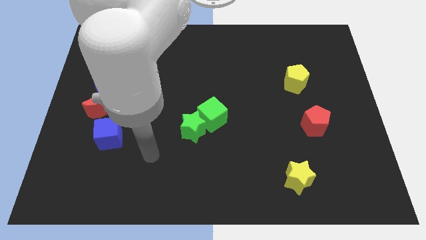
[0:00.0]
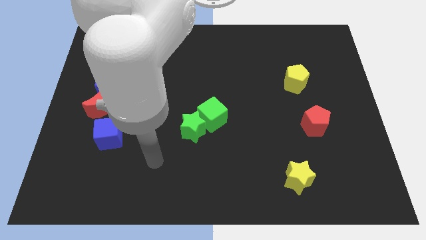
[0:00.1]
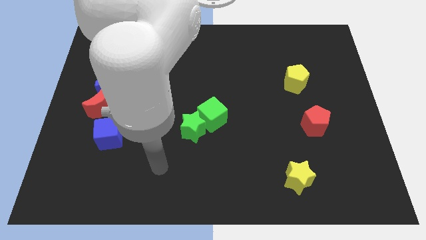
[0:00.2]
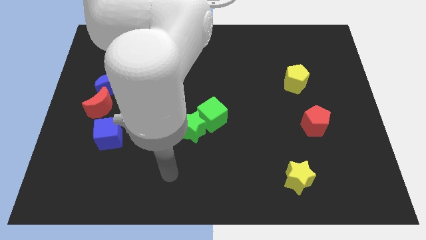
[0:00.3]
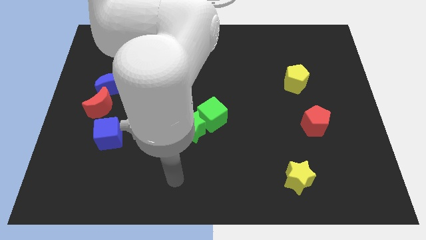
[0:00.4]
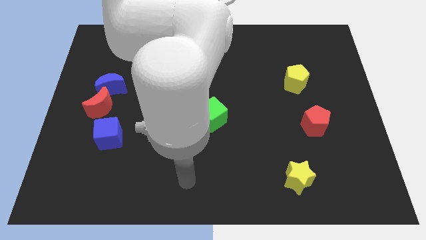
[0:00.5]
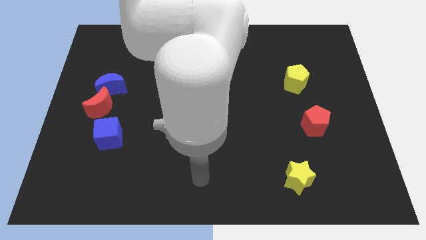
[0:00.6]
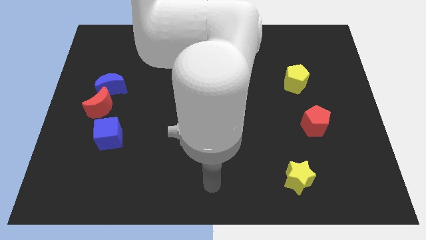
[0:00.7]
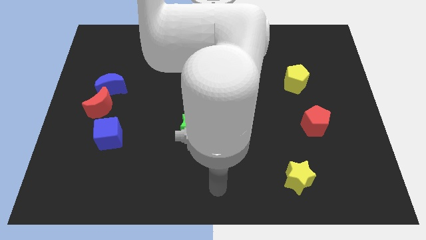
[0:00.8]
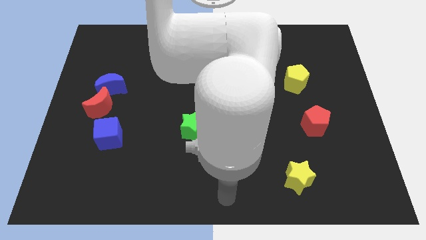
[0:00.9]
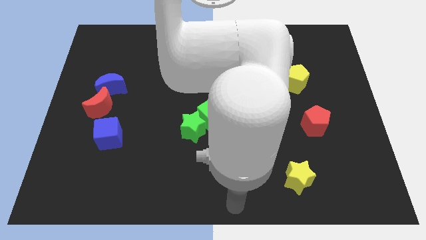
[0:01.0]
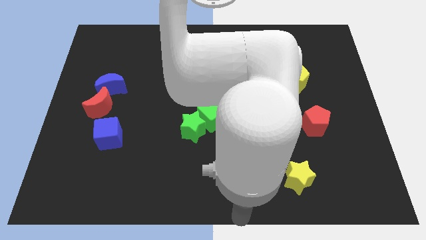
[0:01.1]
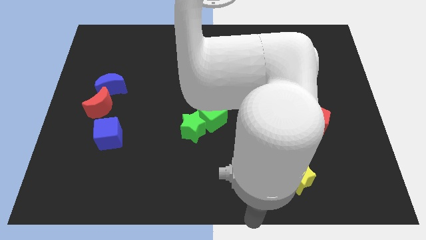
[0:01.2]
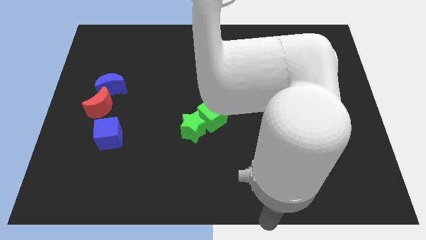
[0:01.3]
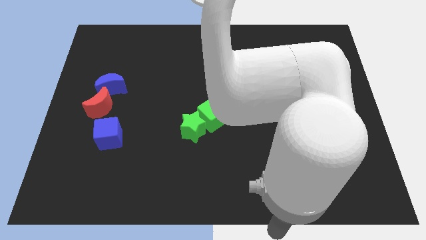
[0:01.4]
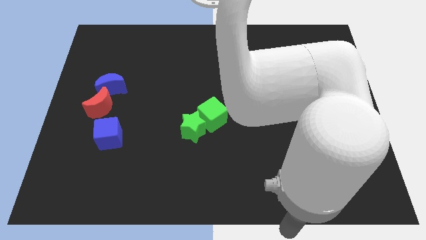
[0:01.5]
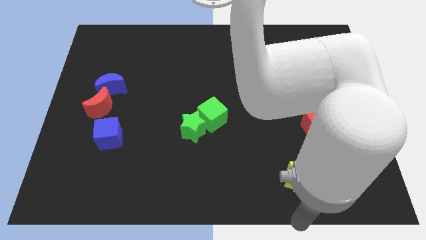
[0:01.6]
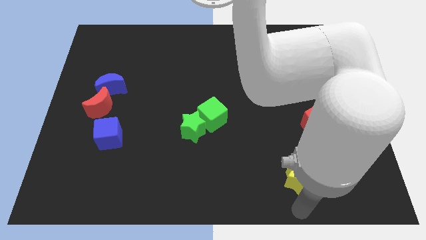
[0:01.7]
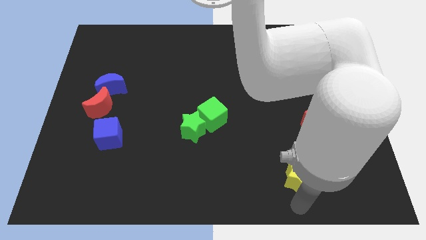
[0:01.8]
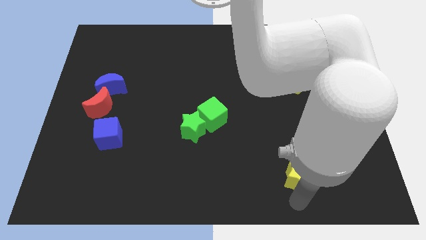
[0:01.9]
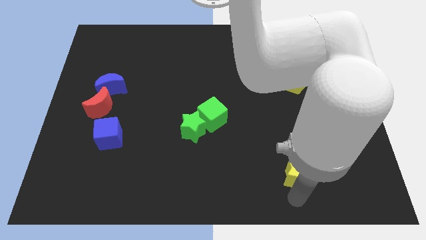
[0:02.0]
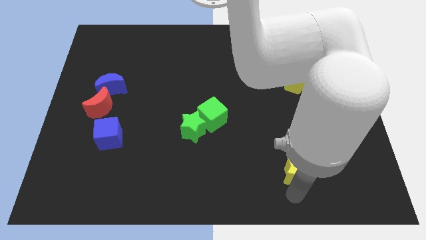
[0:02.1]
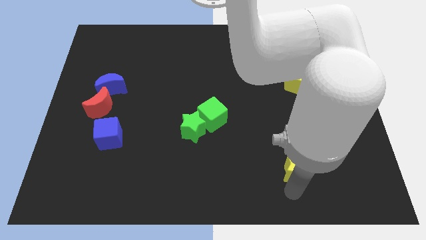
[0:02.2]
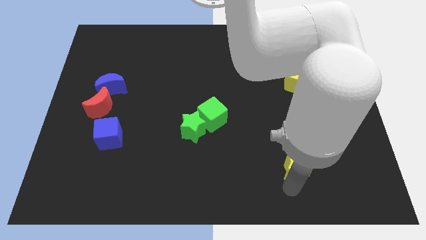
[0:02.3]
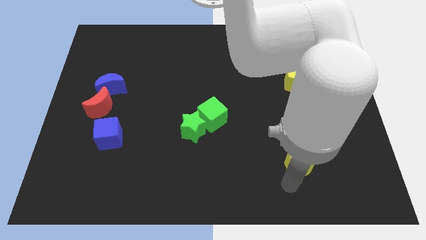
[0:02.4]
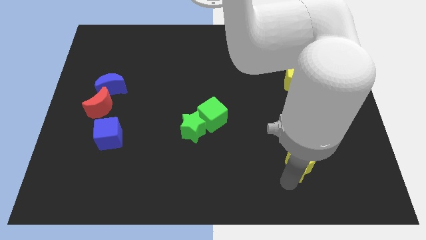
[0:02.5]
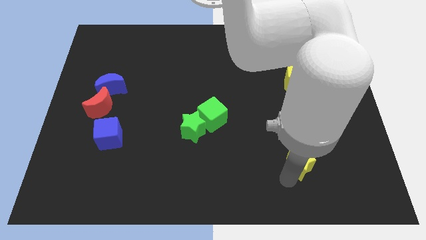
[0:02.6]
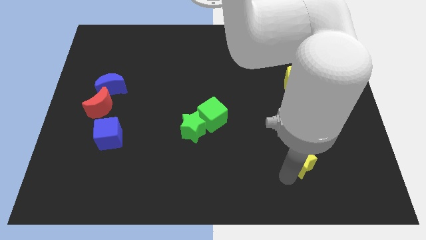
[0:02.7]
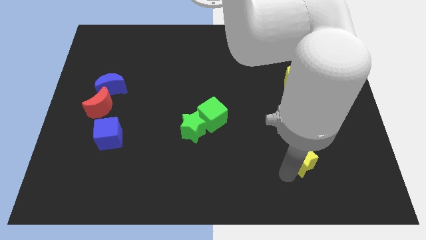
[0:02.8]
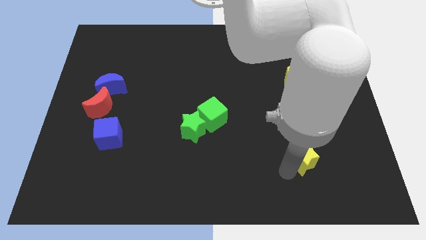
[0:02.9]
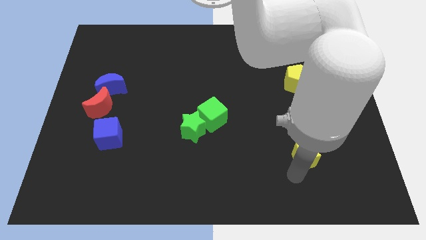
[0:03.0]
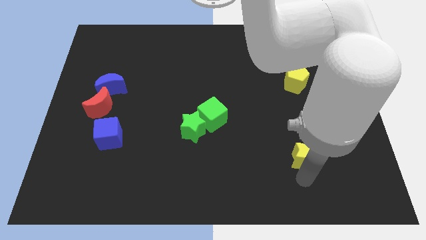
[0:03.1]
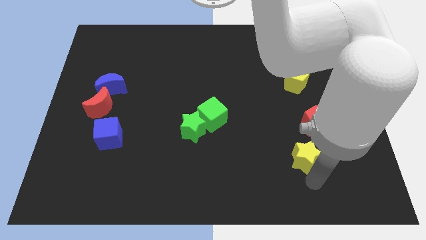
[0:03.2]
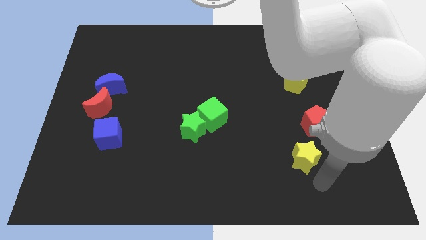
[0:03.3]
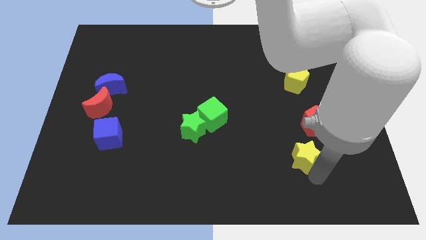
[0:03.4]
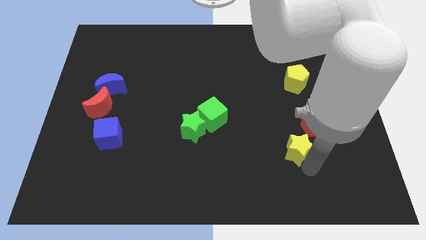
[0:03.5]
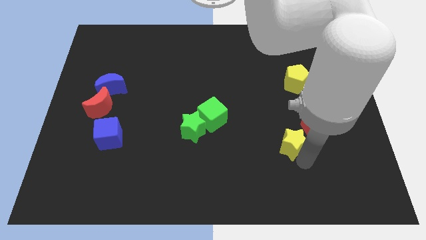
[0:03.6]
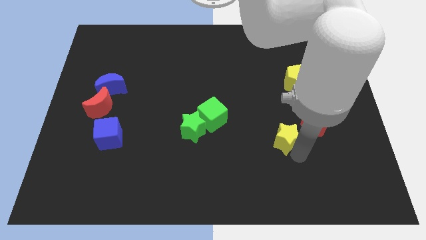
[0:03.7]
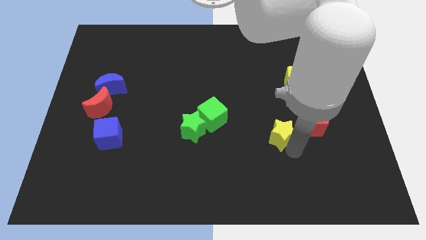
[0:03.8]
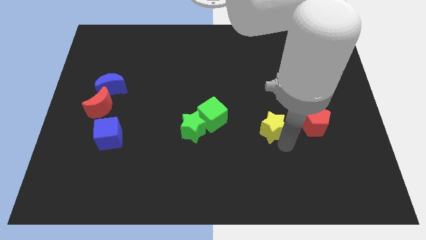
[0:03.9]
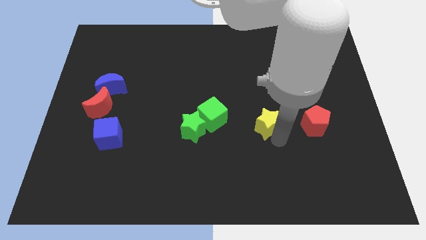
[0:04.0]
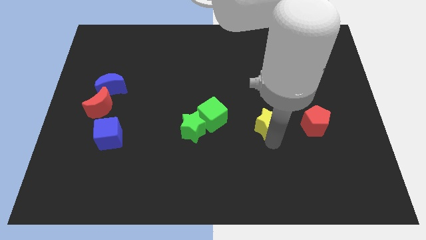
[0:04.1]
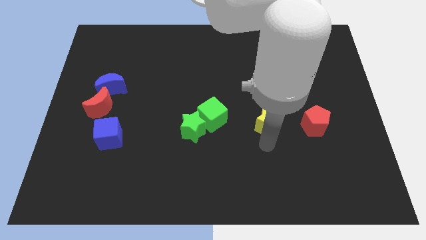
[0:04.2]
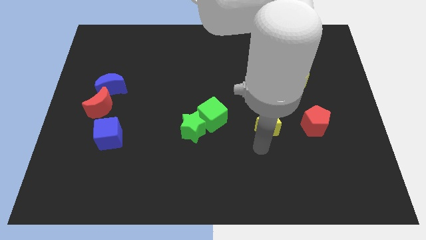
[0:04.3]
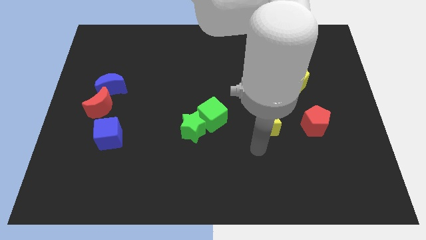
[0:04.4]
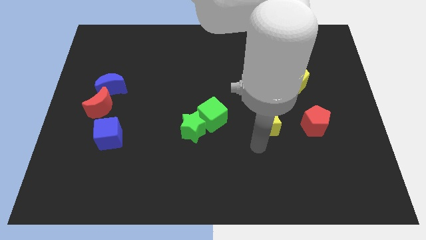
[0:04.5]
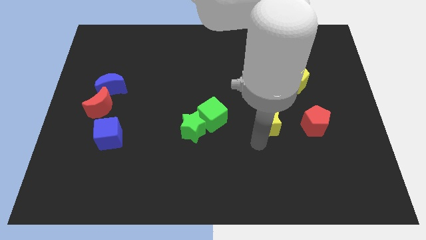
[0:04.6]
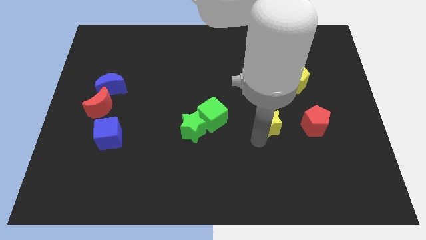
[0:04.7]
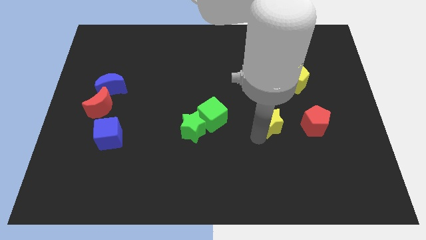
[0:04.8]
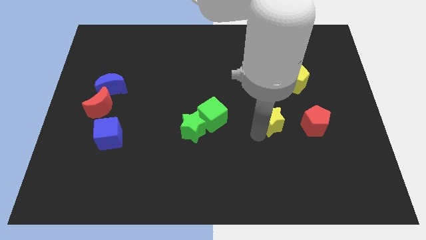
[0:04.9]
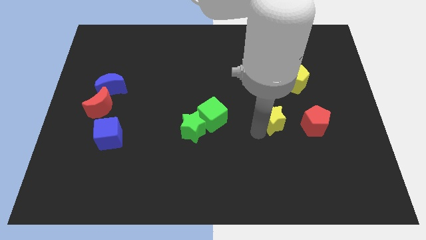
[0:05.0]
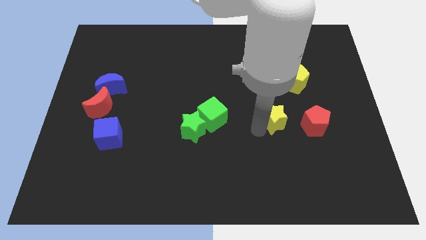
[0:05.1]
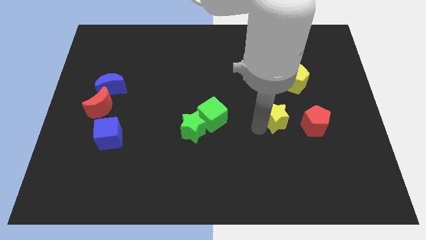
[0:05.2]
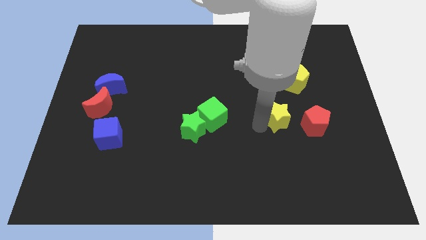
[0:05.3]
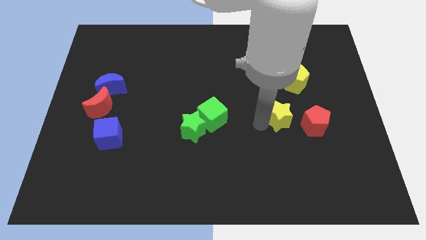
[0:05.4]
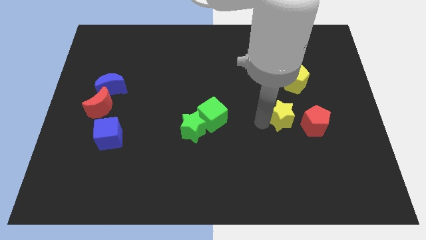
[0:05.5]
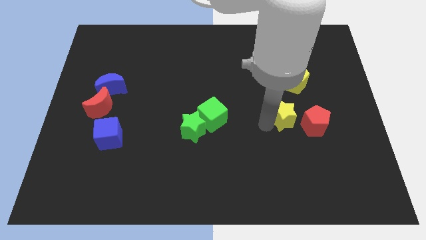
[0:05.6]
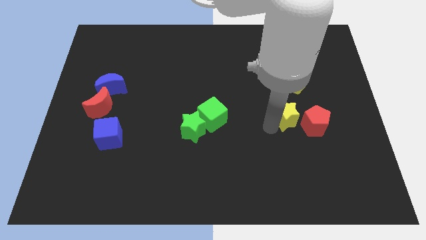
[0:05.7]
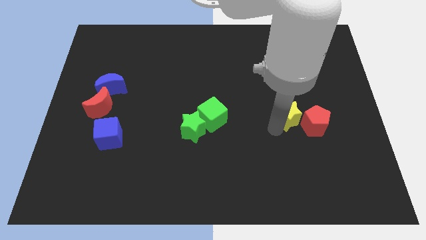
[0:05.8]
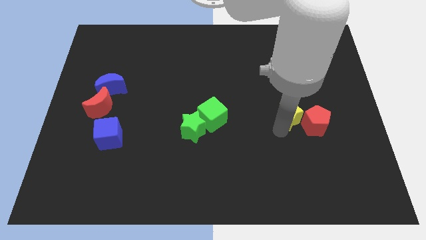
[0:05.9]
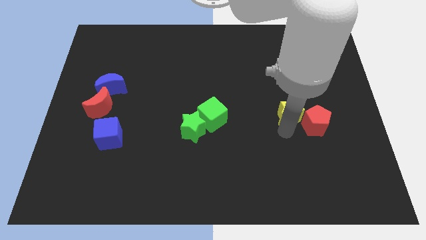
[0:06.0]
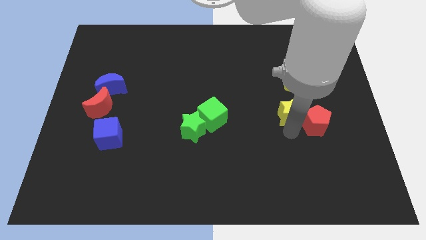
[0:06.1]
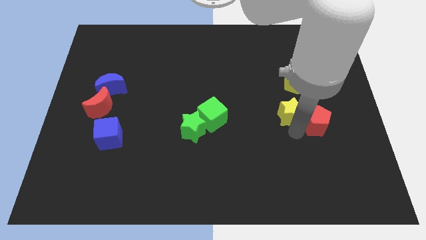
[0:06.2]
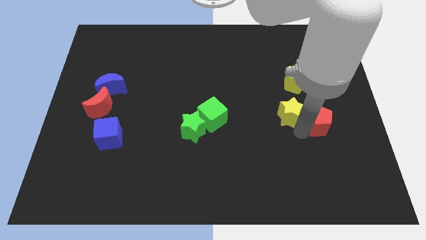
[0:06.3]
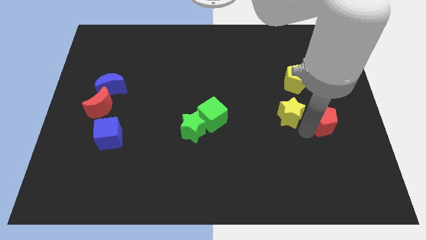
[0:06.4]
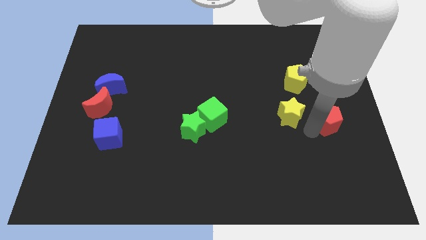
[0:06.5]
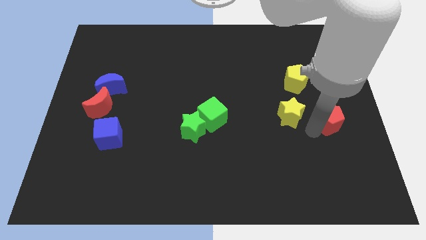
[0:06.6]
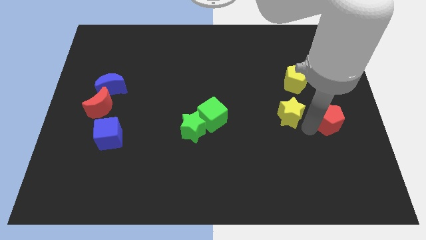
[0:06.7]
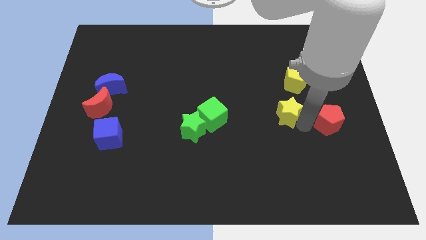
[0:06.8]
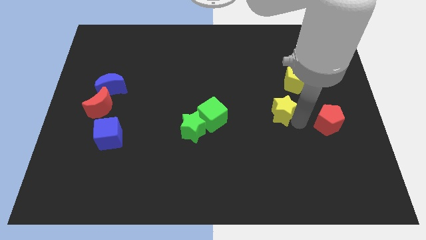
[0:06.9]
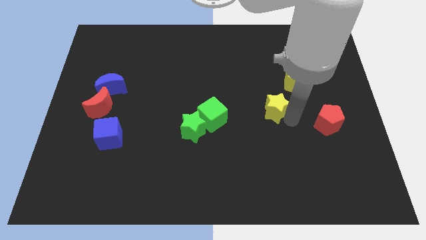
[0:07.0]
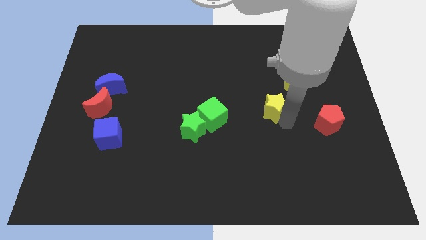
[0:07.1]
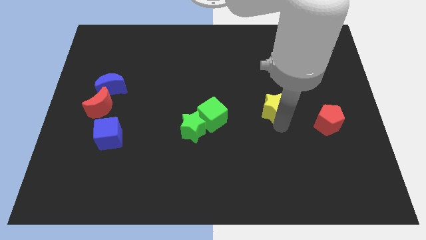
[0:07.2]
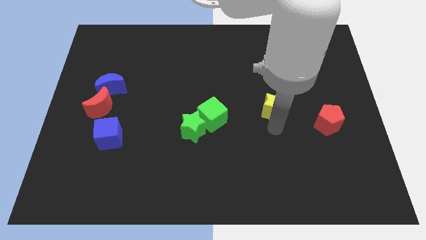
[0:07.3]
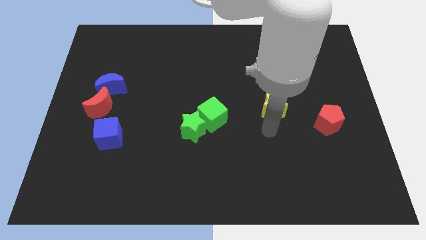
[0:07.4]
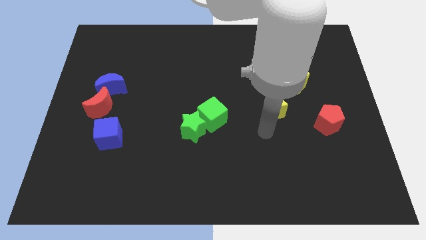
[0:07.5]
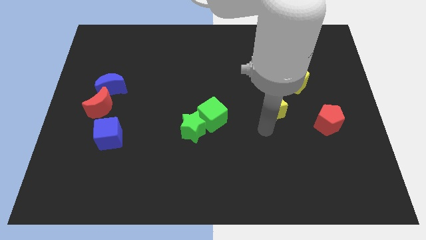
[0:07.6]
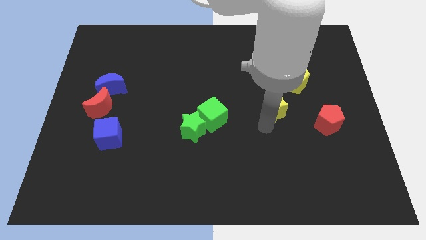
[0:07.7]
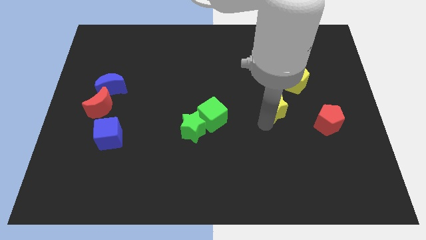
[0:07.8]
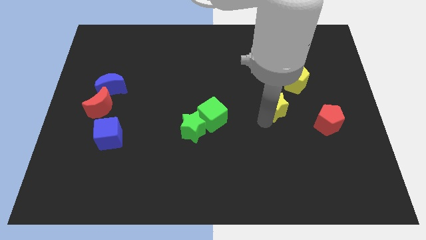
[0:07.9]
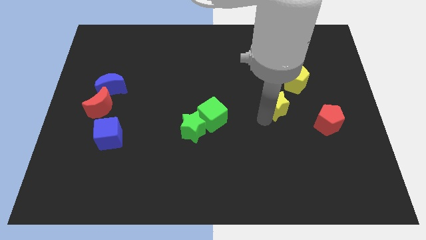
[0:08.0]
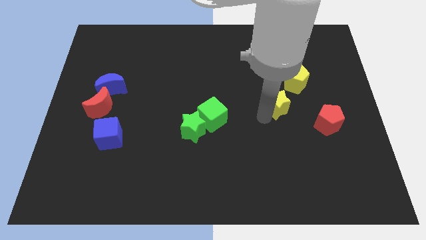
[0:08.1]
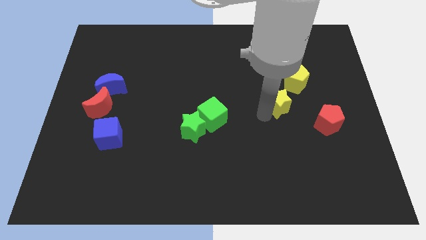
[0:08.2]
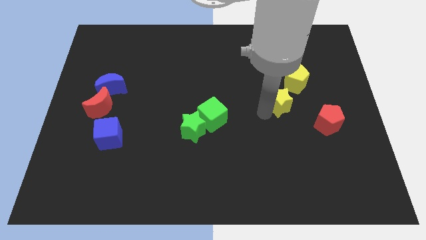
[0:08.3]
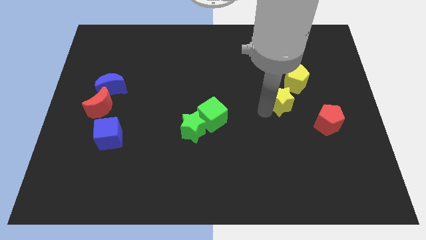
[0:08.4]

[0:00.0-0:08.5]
push the yellow star upwards
